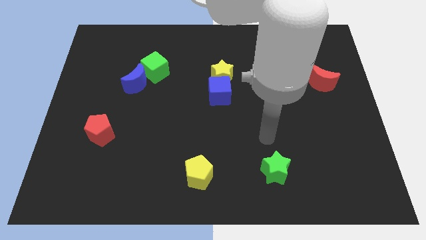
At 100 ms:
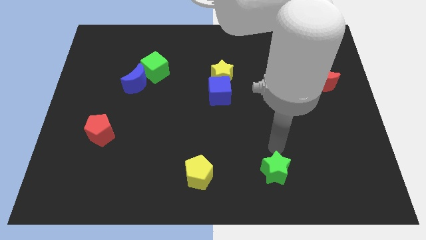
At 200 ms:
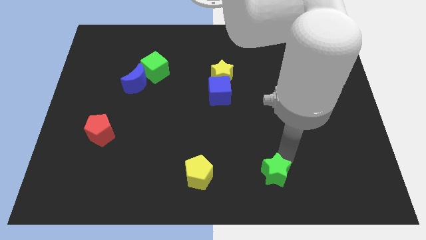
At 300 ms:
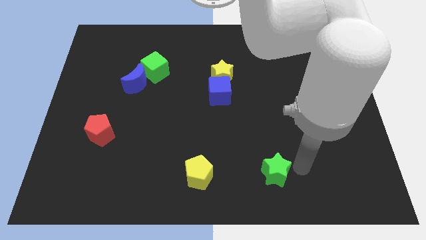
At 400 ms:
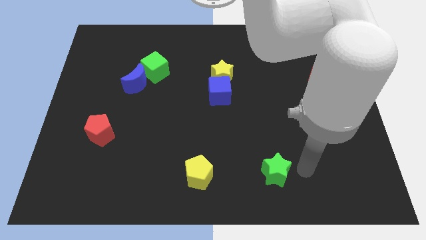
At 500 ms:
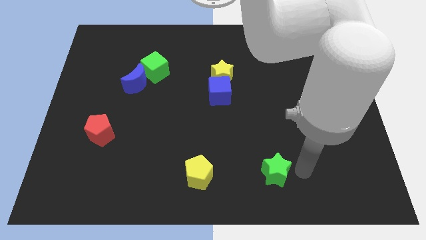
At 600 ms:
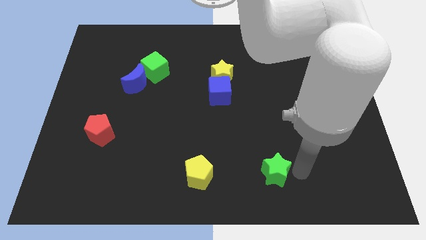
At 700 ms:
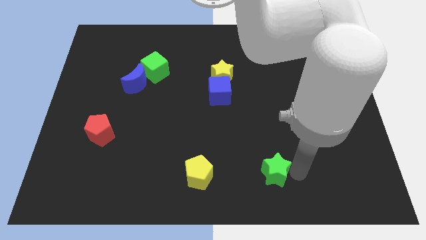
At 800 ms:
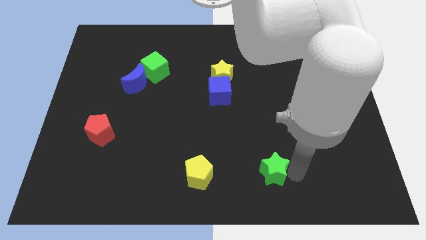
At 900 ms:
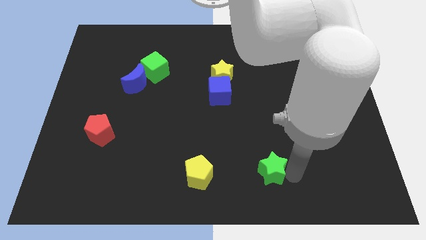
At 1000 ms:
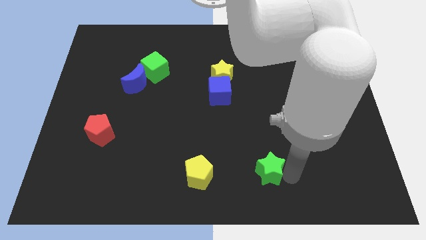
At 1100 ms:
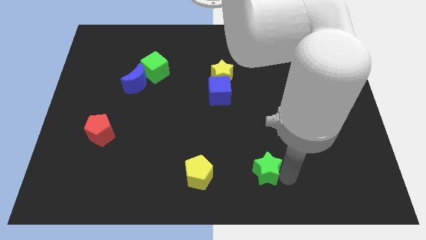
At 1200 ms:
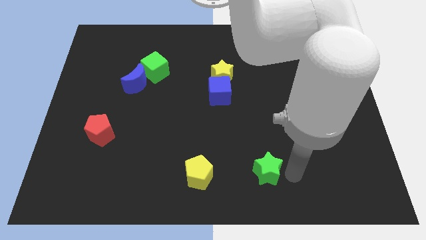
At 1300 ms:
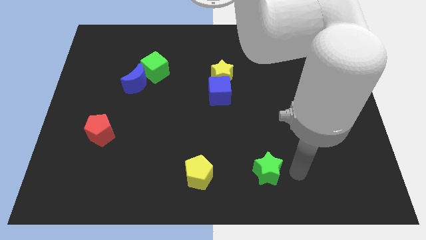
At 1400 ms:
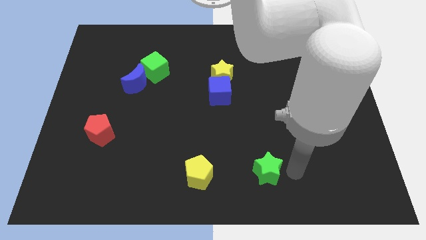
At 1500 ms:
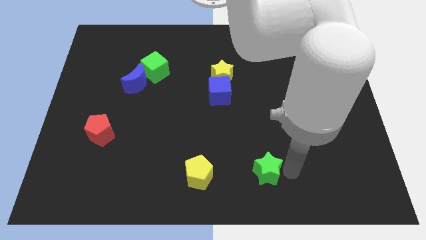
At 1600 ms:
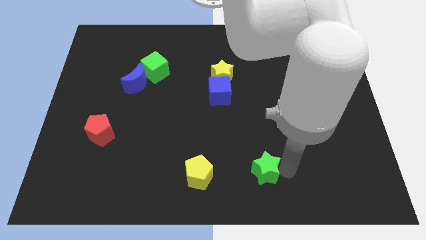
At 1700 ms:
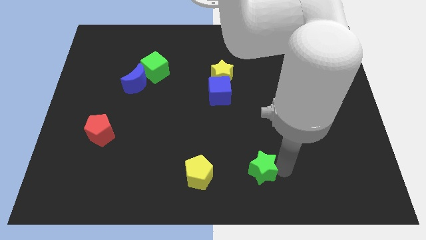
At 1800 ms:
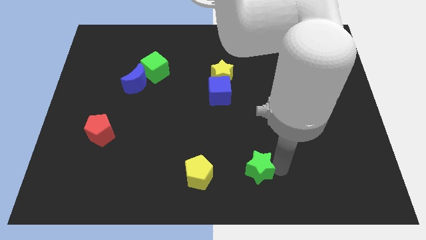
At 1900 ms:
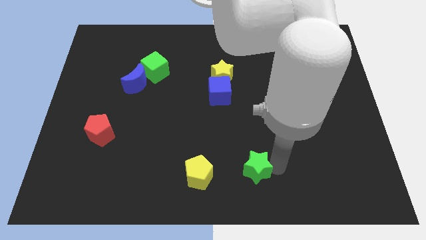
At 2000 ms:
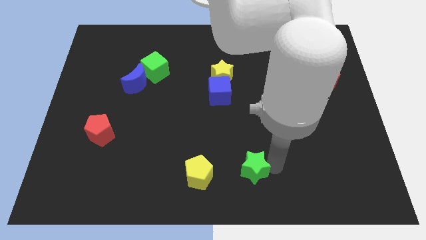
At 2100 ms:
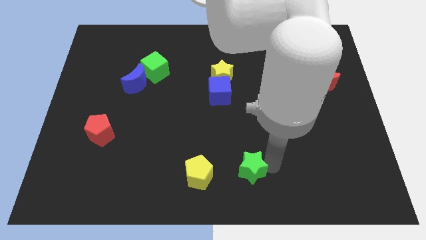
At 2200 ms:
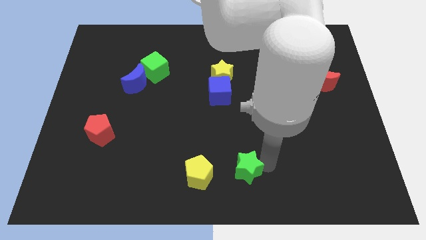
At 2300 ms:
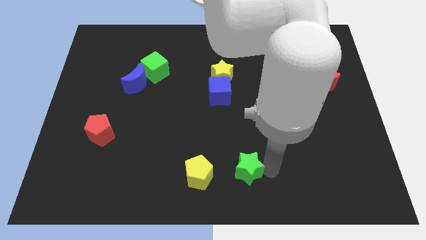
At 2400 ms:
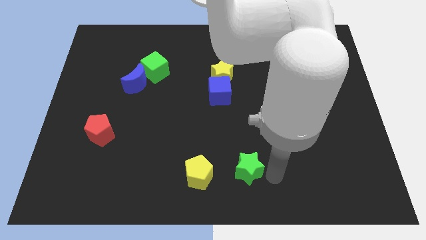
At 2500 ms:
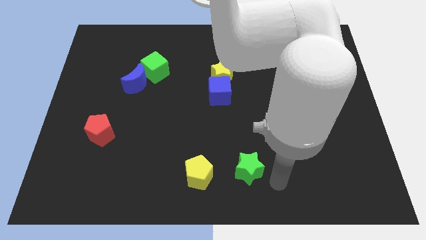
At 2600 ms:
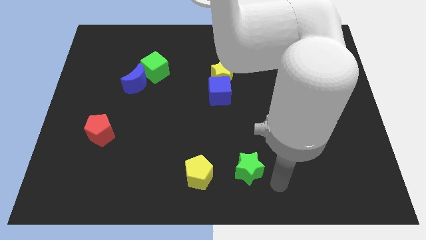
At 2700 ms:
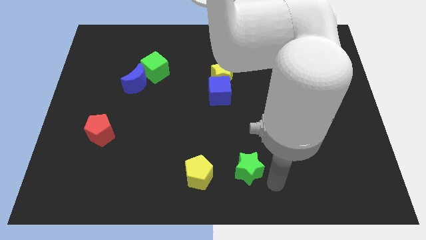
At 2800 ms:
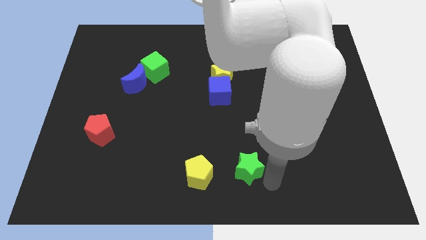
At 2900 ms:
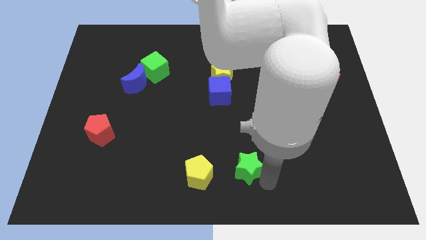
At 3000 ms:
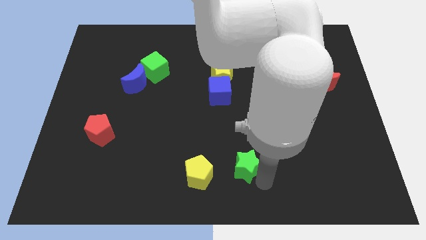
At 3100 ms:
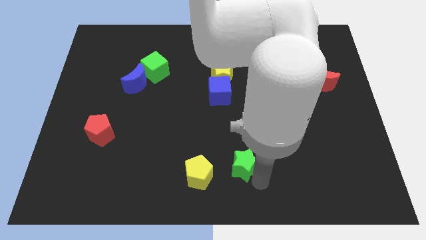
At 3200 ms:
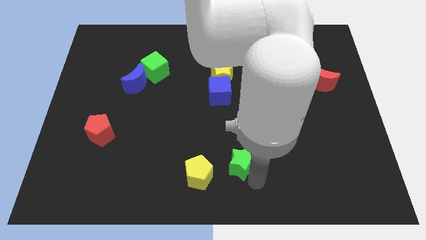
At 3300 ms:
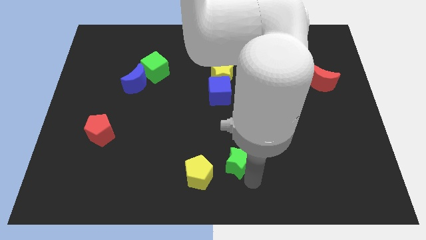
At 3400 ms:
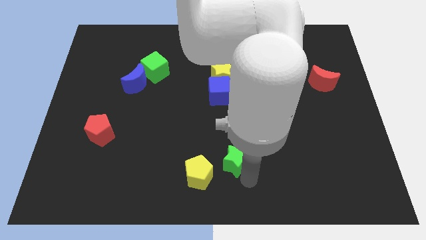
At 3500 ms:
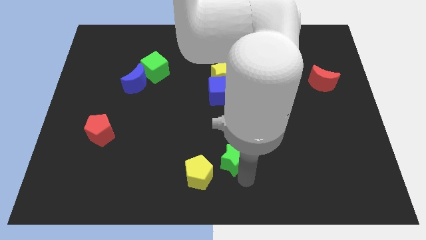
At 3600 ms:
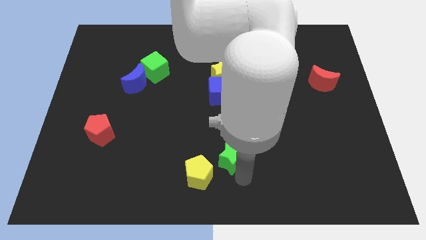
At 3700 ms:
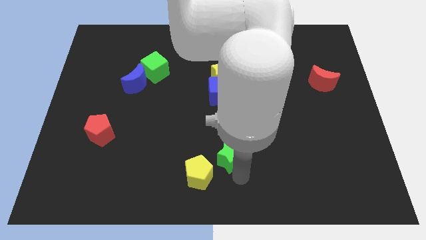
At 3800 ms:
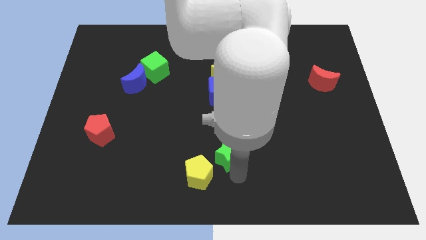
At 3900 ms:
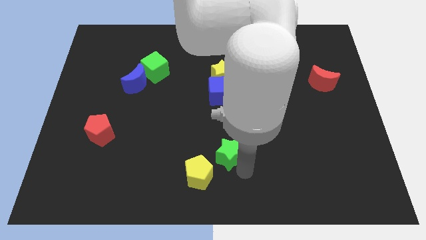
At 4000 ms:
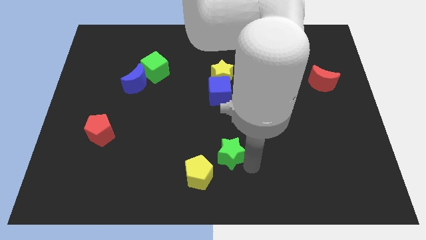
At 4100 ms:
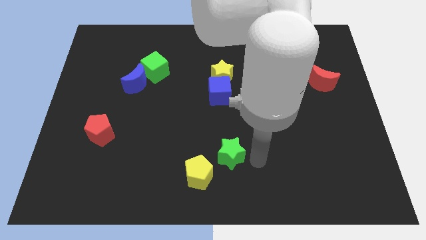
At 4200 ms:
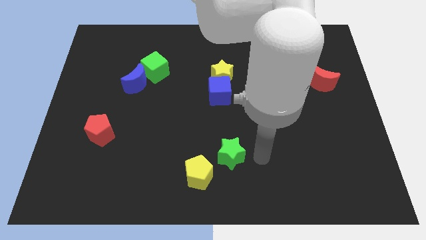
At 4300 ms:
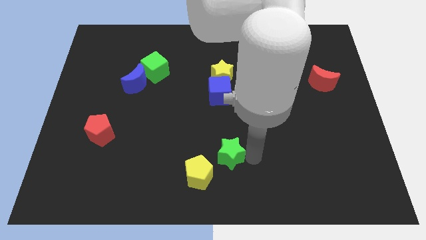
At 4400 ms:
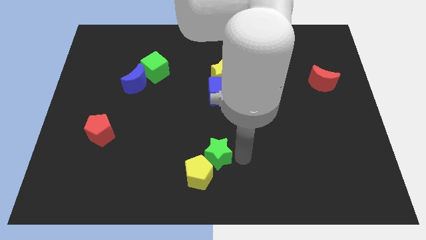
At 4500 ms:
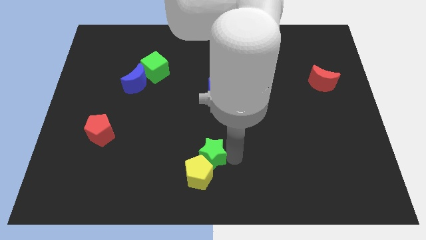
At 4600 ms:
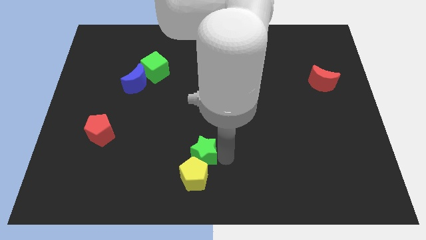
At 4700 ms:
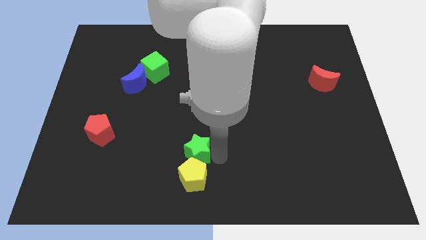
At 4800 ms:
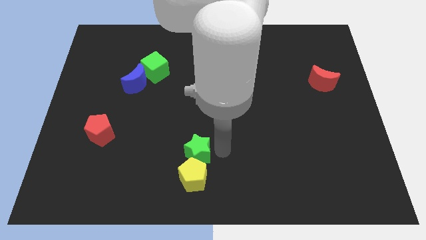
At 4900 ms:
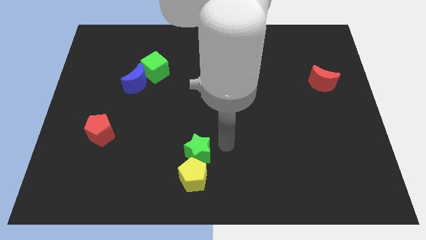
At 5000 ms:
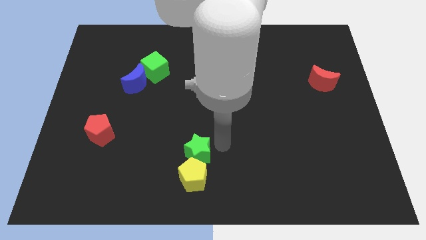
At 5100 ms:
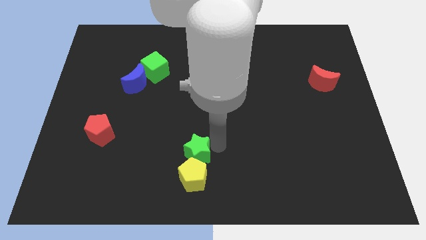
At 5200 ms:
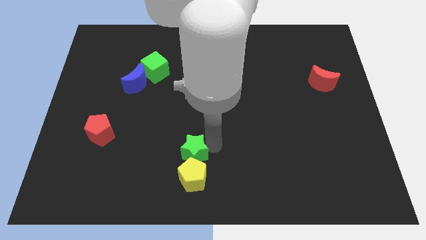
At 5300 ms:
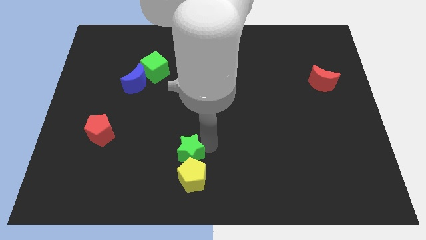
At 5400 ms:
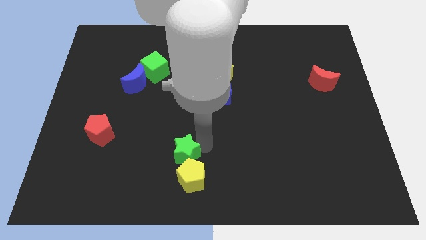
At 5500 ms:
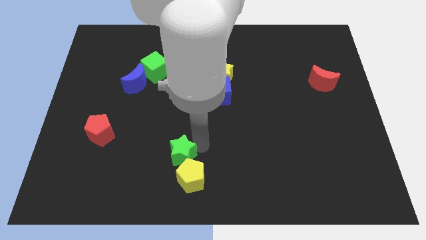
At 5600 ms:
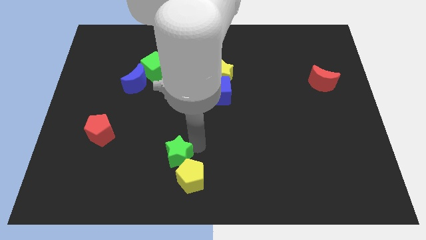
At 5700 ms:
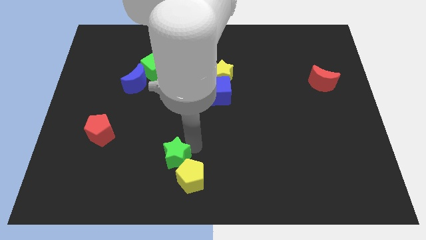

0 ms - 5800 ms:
slide the green star to the left

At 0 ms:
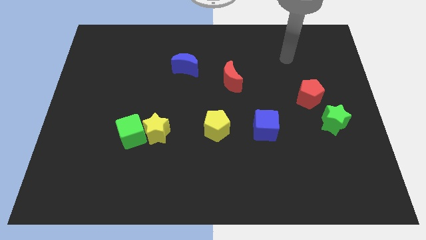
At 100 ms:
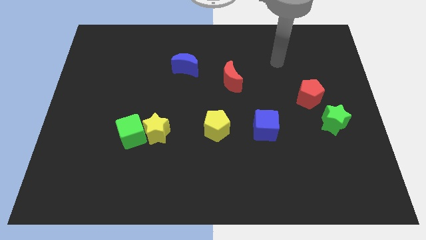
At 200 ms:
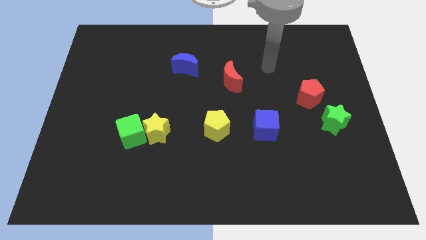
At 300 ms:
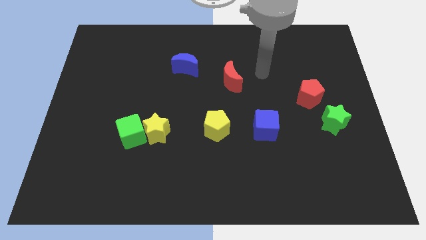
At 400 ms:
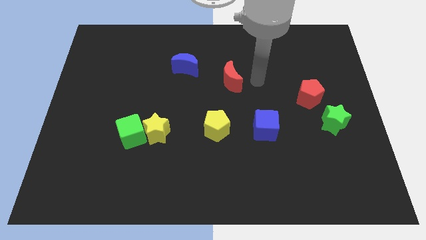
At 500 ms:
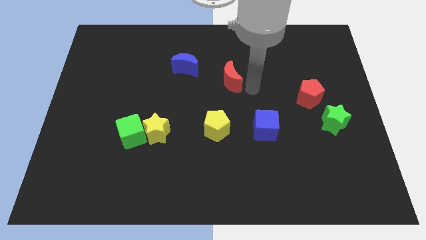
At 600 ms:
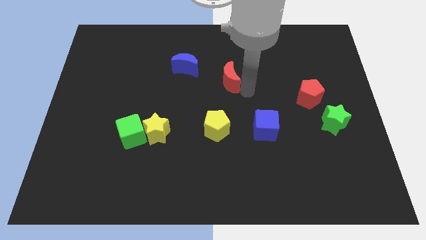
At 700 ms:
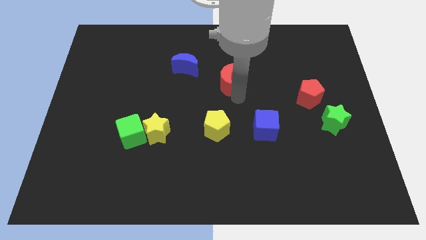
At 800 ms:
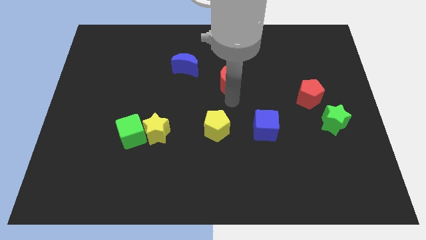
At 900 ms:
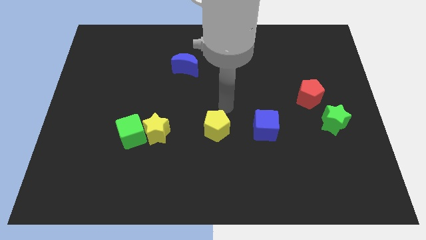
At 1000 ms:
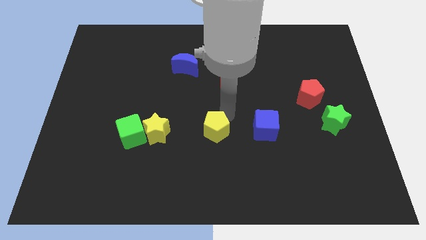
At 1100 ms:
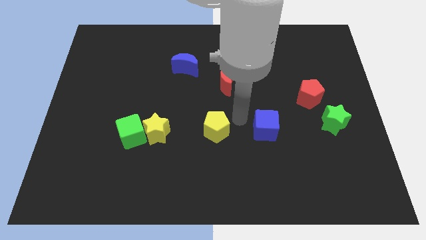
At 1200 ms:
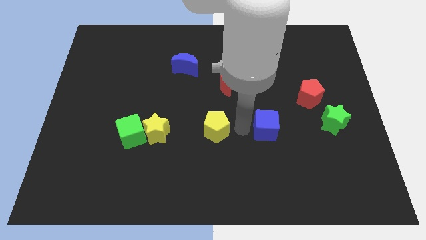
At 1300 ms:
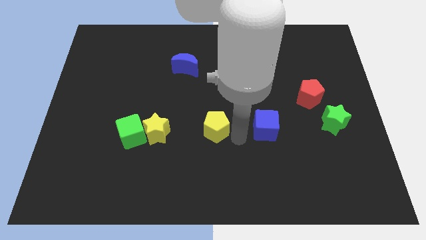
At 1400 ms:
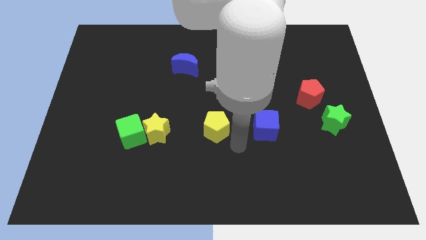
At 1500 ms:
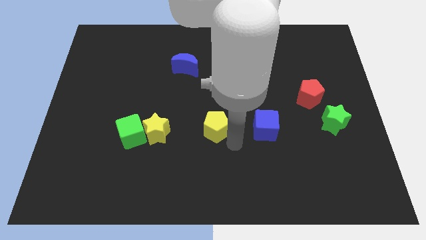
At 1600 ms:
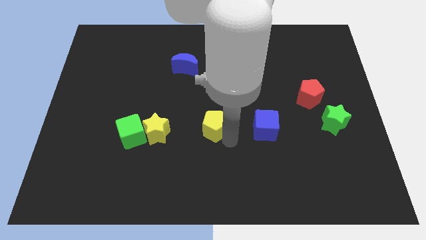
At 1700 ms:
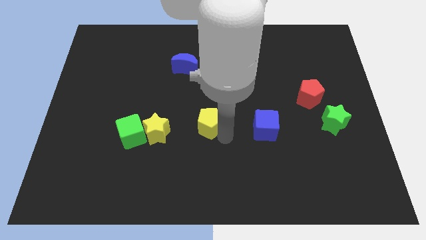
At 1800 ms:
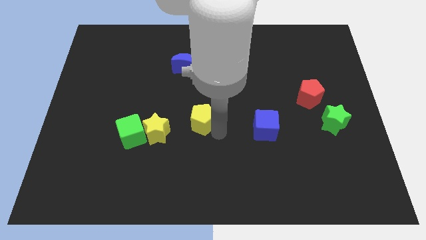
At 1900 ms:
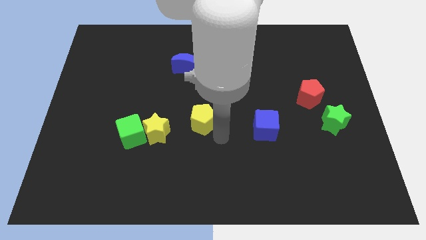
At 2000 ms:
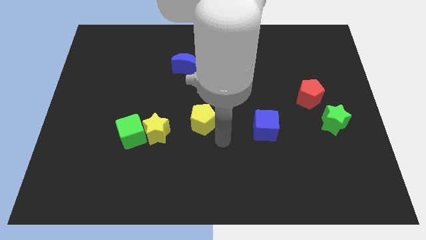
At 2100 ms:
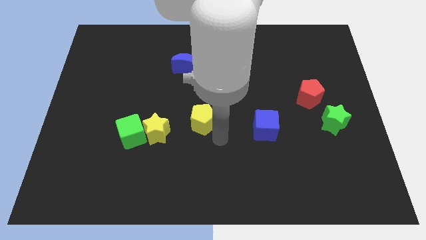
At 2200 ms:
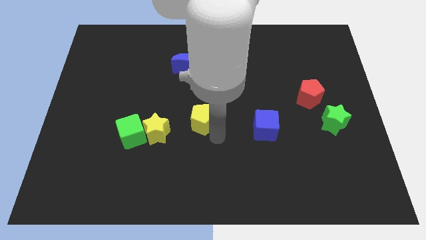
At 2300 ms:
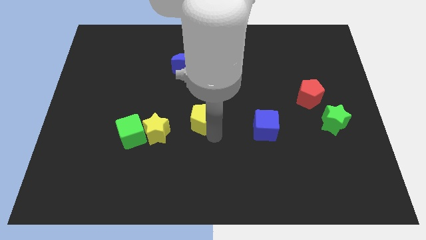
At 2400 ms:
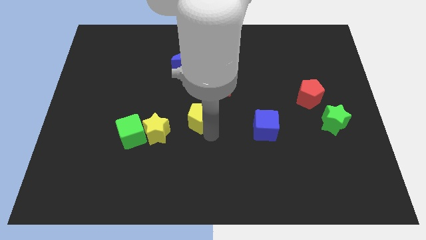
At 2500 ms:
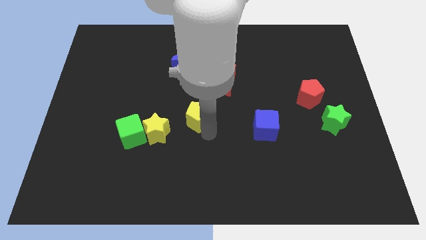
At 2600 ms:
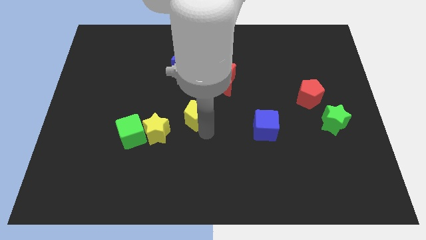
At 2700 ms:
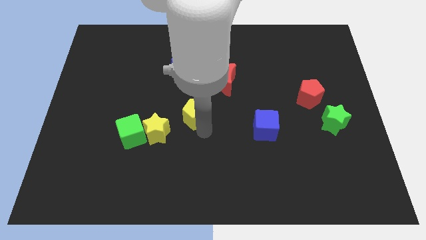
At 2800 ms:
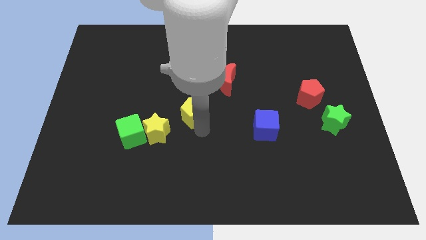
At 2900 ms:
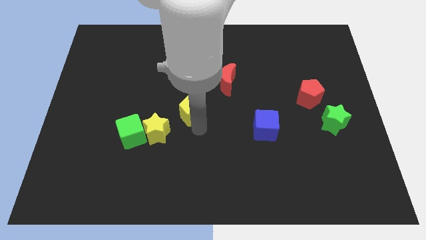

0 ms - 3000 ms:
push the yellow pentagon diagonally up and left somewhat
